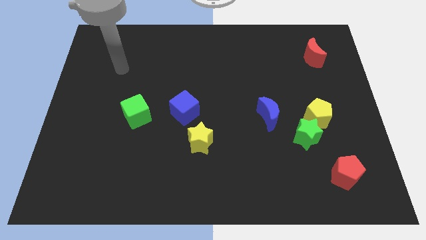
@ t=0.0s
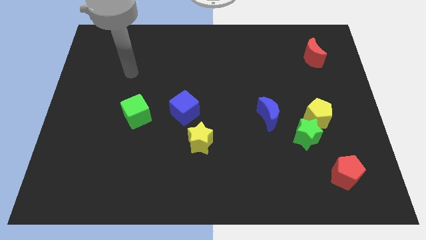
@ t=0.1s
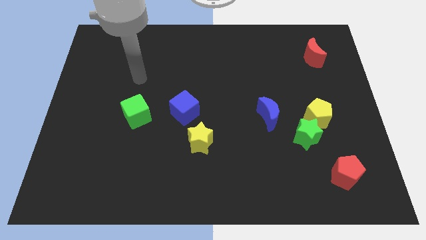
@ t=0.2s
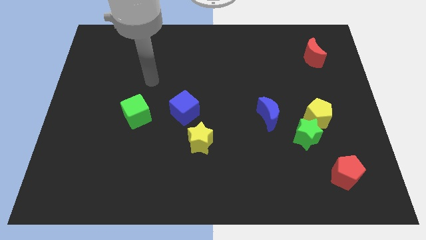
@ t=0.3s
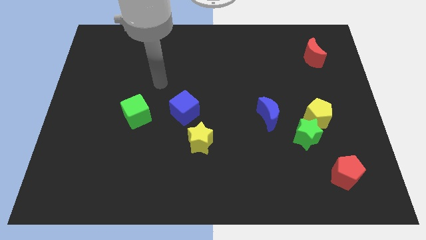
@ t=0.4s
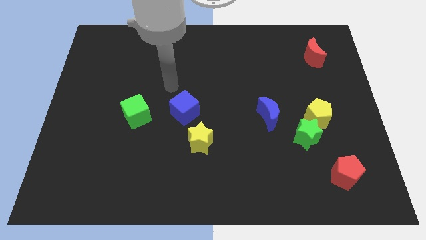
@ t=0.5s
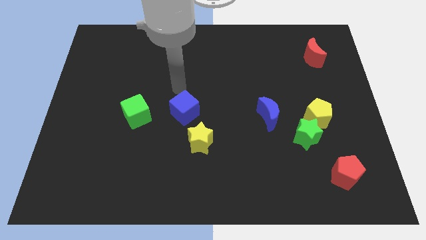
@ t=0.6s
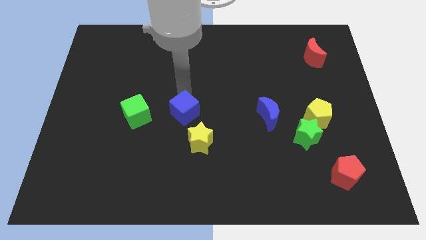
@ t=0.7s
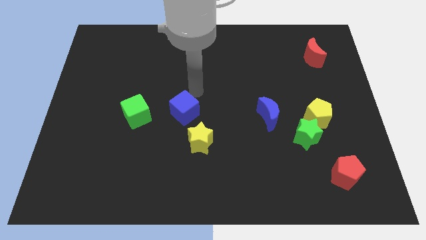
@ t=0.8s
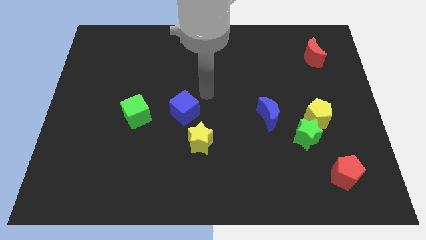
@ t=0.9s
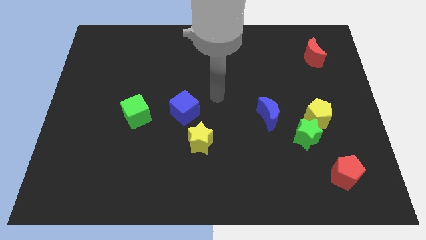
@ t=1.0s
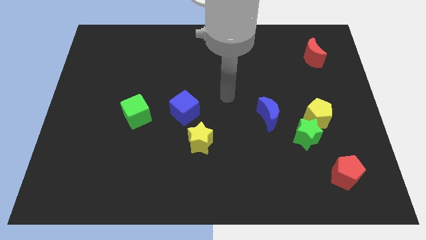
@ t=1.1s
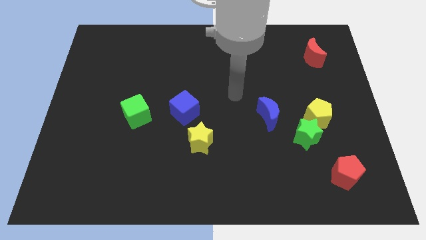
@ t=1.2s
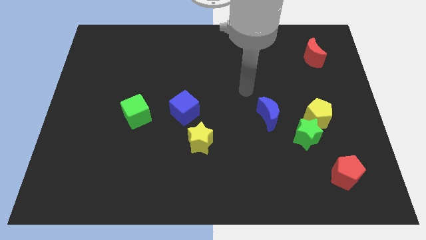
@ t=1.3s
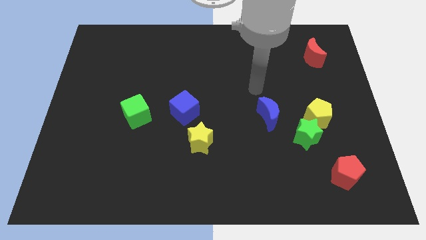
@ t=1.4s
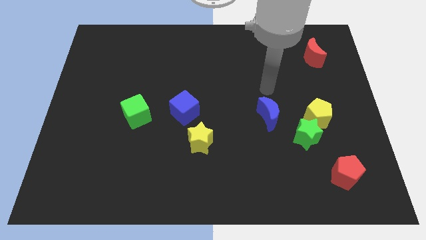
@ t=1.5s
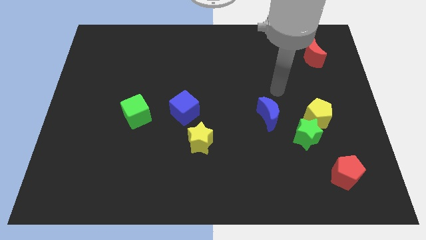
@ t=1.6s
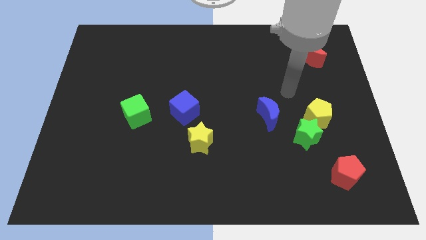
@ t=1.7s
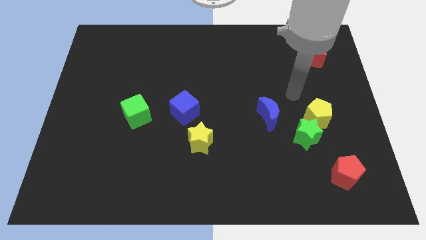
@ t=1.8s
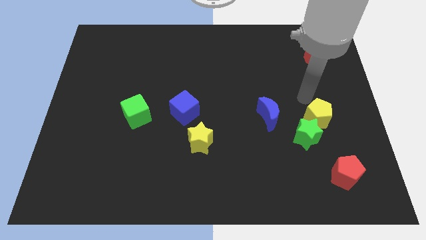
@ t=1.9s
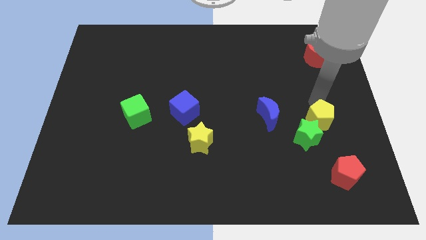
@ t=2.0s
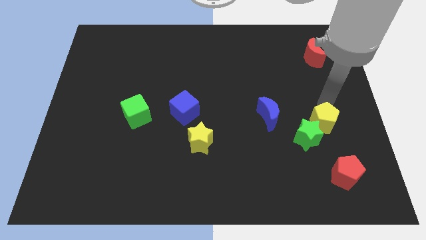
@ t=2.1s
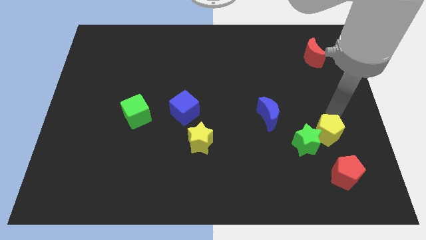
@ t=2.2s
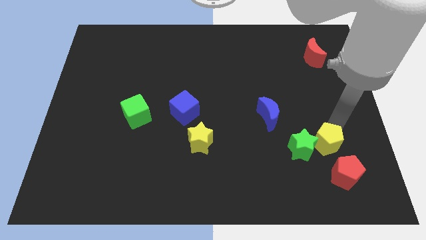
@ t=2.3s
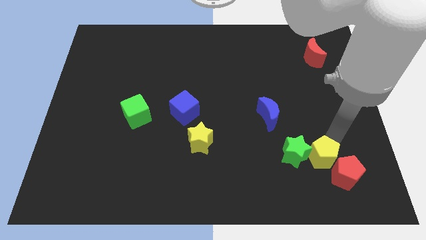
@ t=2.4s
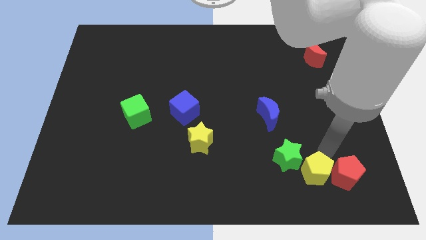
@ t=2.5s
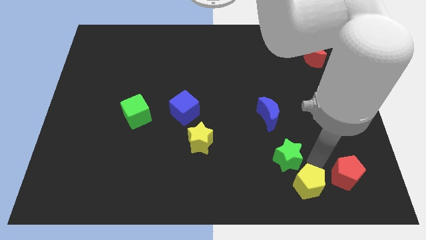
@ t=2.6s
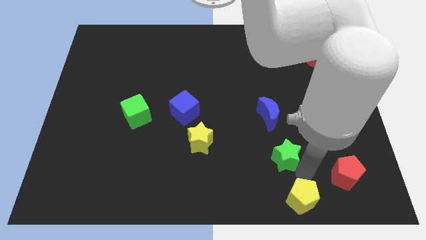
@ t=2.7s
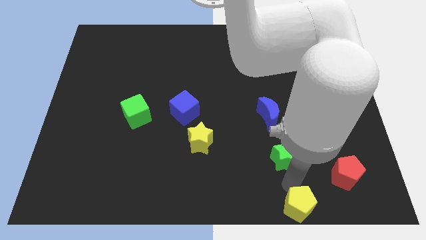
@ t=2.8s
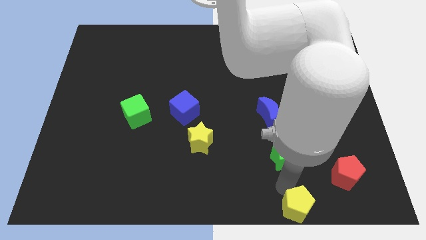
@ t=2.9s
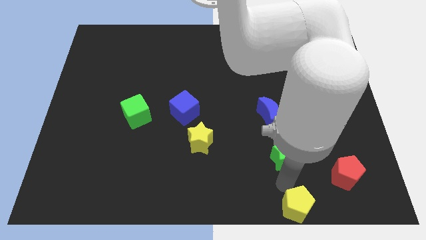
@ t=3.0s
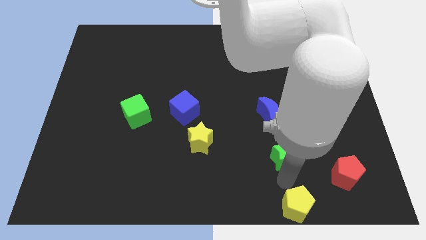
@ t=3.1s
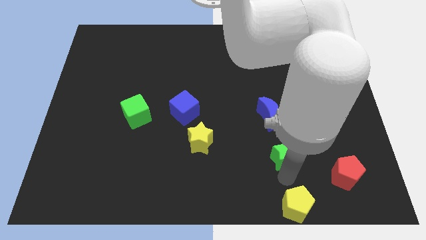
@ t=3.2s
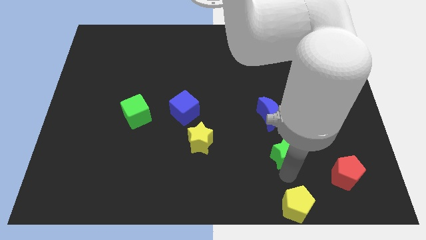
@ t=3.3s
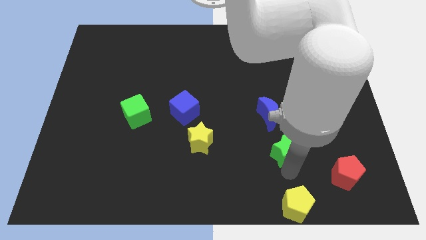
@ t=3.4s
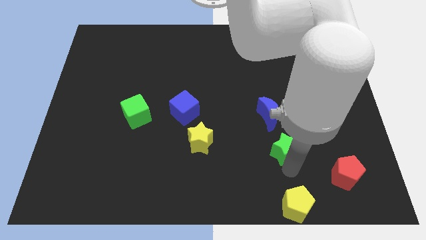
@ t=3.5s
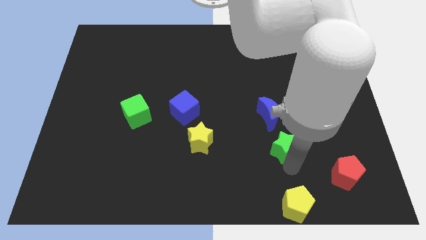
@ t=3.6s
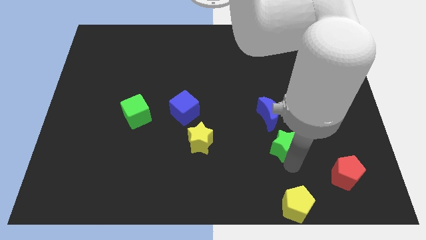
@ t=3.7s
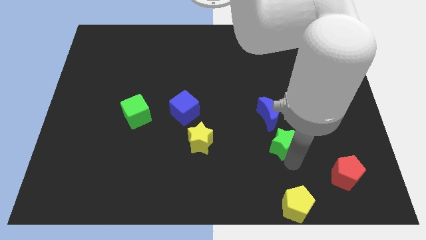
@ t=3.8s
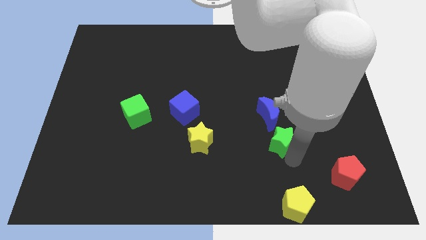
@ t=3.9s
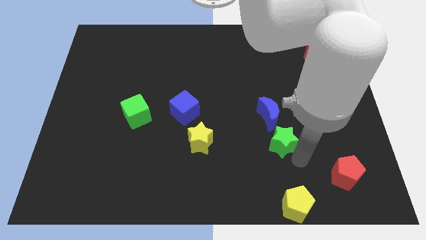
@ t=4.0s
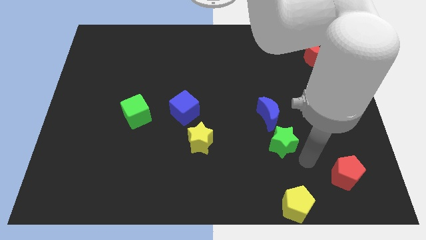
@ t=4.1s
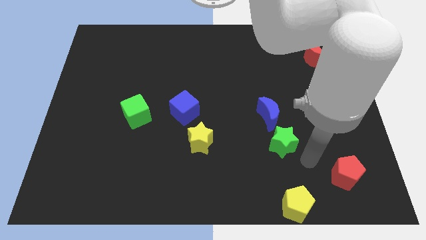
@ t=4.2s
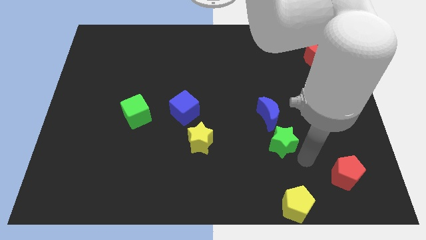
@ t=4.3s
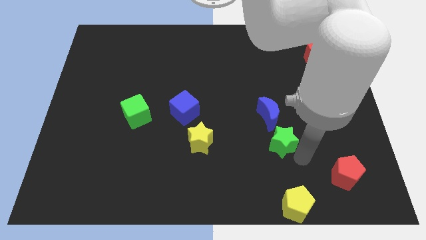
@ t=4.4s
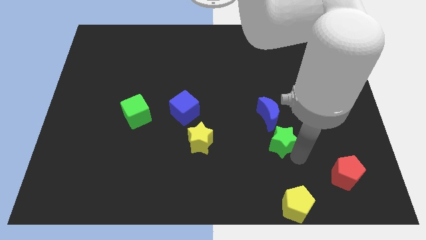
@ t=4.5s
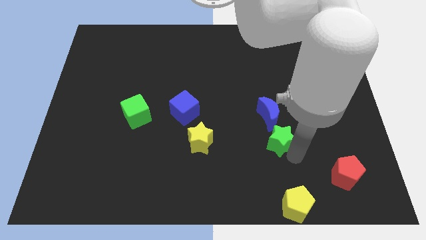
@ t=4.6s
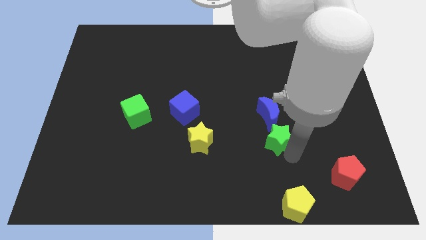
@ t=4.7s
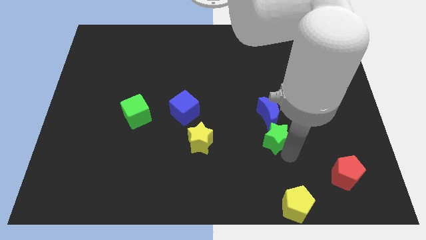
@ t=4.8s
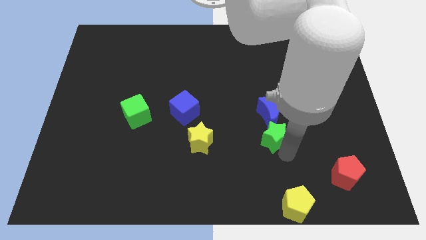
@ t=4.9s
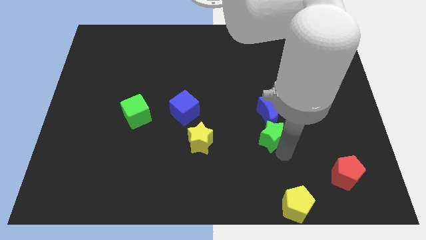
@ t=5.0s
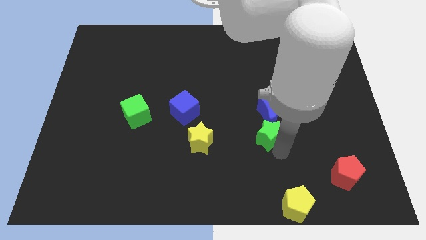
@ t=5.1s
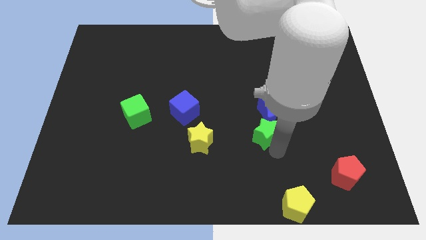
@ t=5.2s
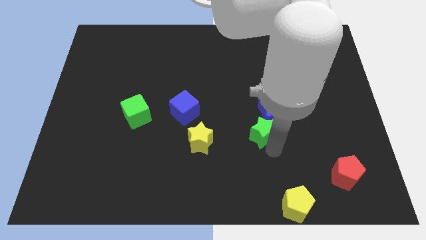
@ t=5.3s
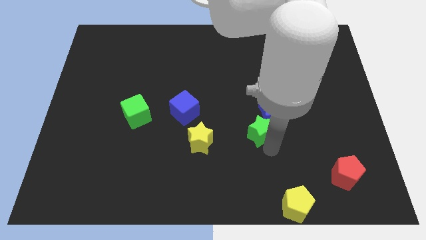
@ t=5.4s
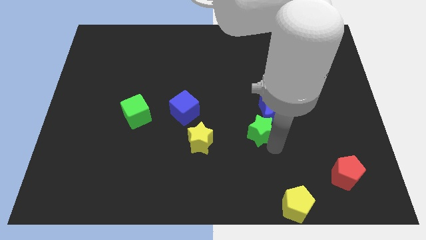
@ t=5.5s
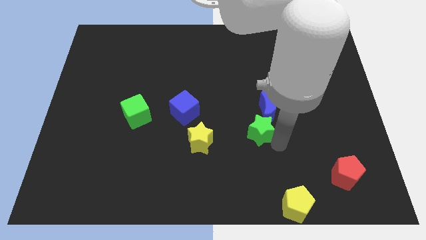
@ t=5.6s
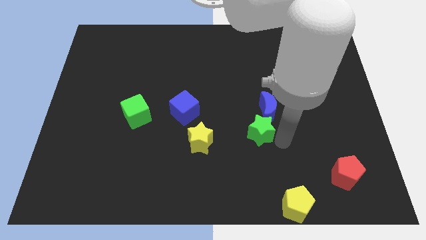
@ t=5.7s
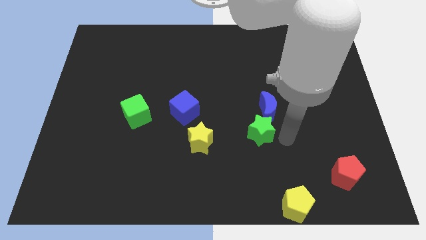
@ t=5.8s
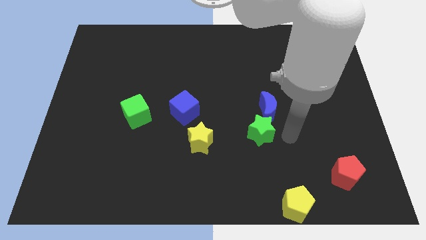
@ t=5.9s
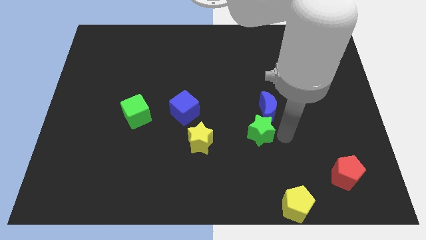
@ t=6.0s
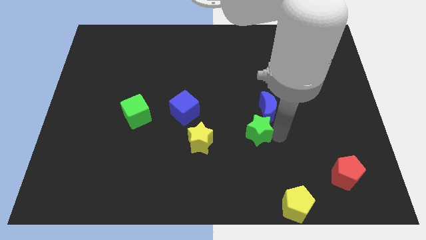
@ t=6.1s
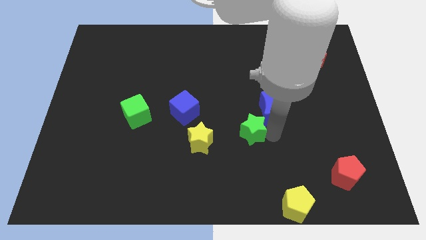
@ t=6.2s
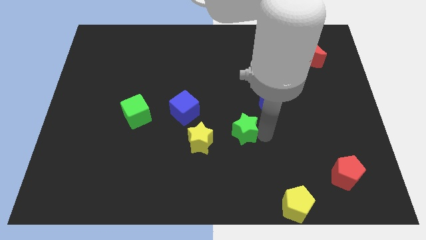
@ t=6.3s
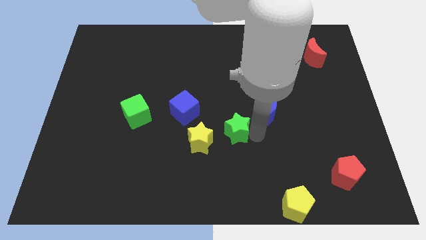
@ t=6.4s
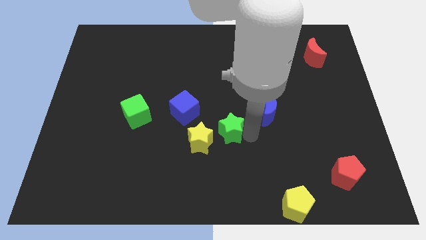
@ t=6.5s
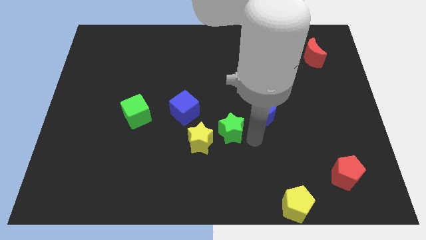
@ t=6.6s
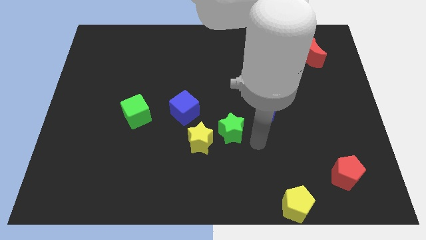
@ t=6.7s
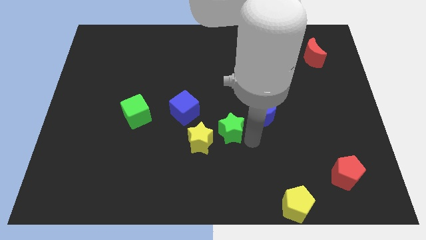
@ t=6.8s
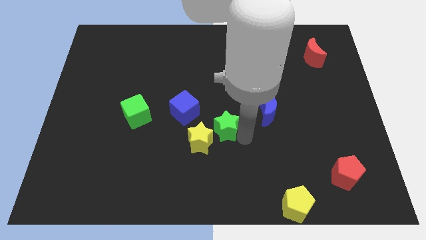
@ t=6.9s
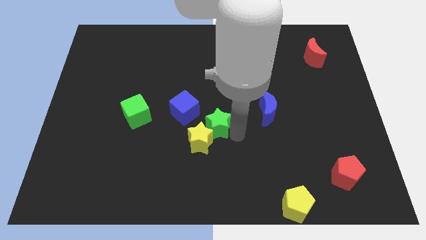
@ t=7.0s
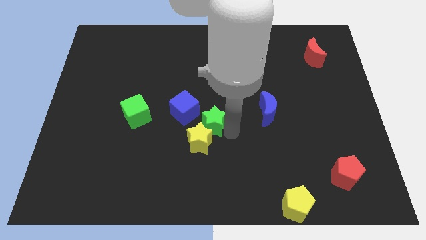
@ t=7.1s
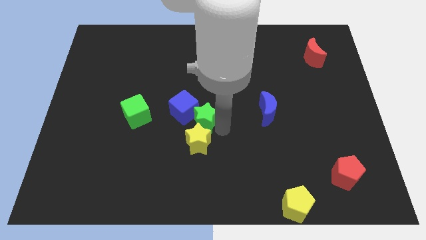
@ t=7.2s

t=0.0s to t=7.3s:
push the green star close to the blue cube
